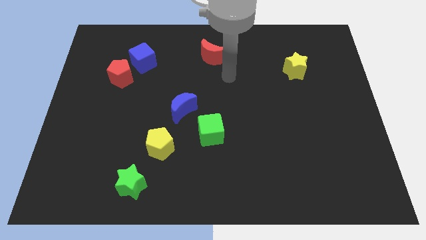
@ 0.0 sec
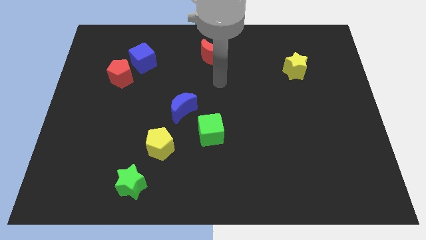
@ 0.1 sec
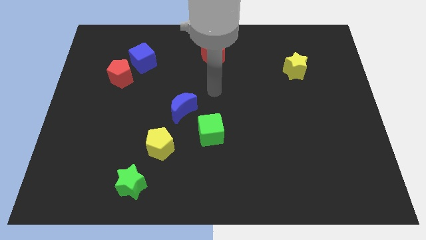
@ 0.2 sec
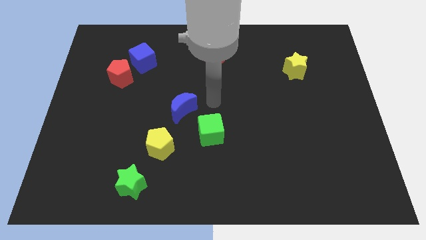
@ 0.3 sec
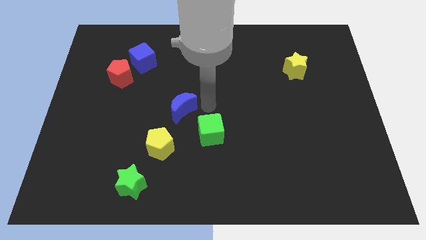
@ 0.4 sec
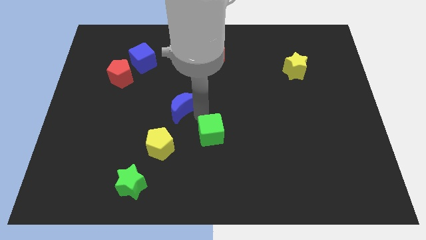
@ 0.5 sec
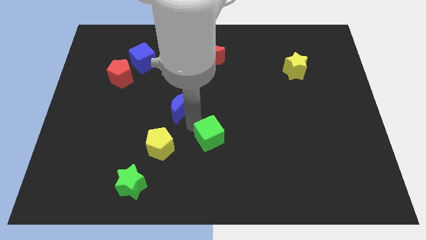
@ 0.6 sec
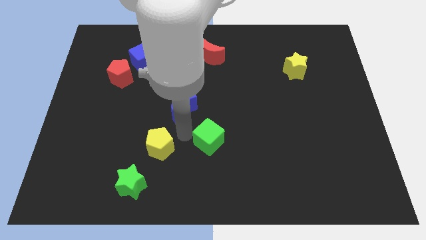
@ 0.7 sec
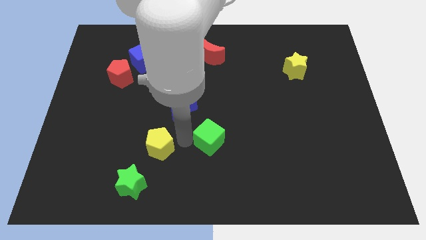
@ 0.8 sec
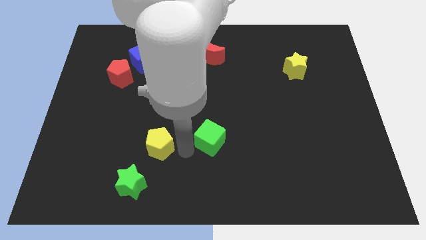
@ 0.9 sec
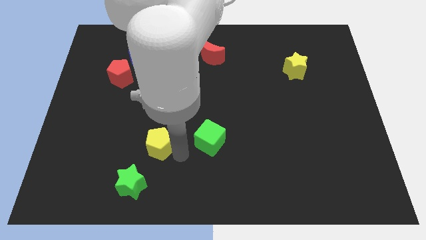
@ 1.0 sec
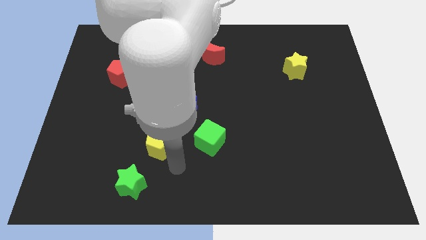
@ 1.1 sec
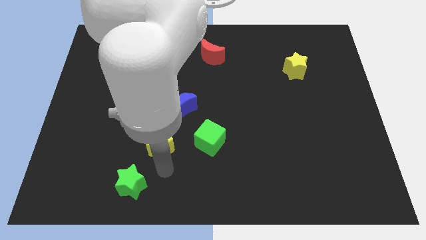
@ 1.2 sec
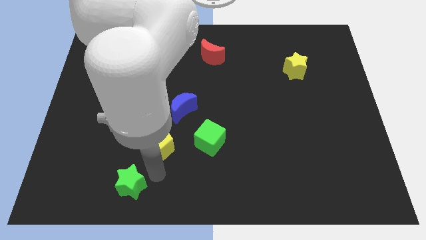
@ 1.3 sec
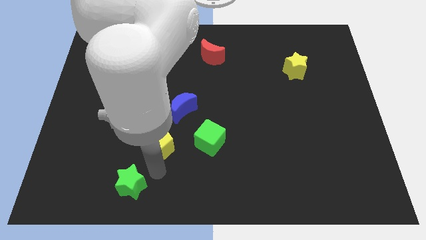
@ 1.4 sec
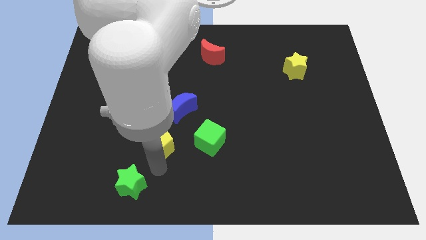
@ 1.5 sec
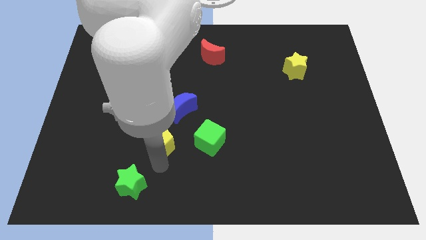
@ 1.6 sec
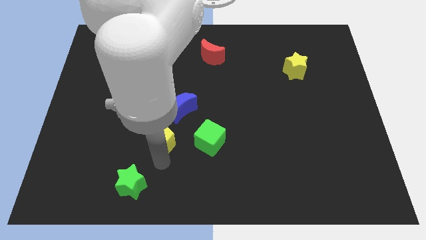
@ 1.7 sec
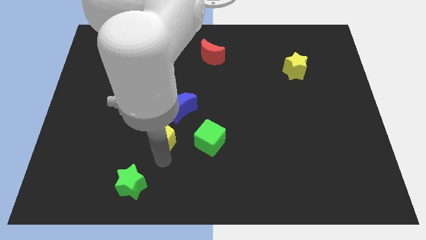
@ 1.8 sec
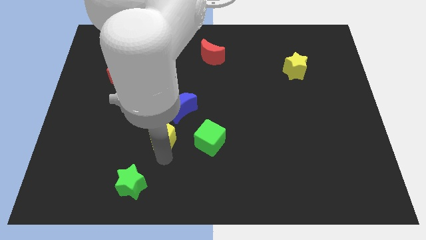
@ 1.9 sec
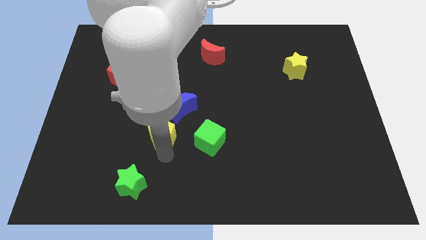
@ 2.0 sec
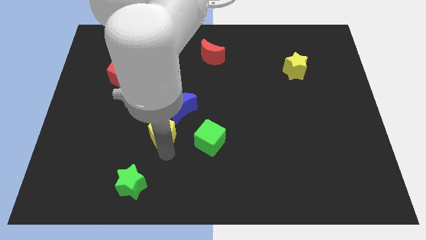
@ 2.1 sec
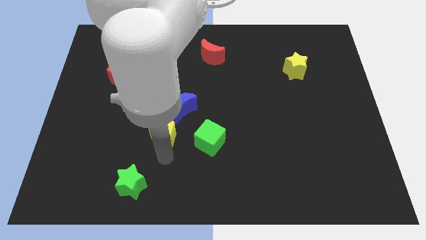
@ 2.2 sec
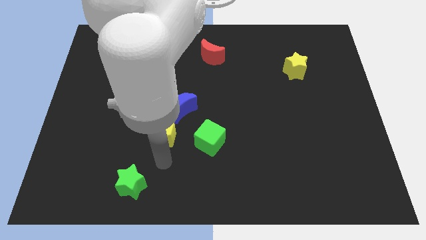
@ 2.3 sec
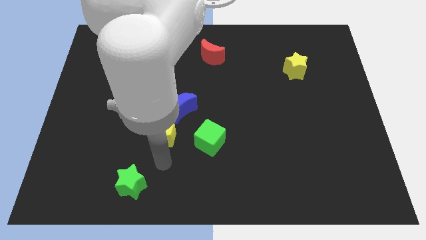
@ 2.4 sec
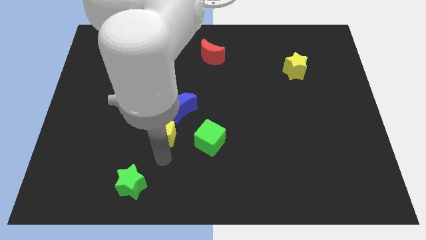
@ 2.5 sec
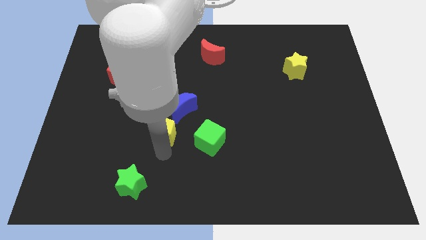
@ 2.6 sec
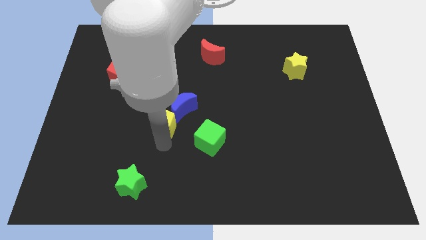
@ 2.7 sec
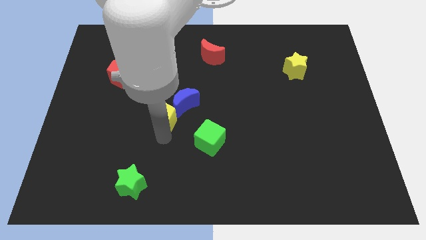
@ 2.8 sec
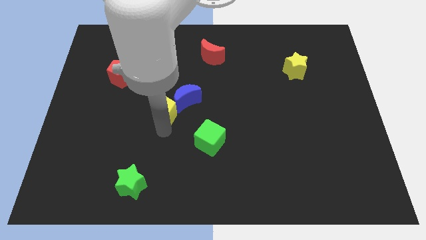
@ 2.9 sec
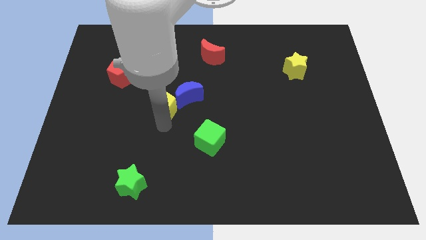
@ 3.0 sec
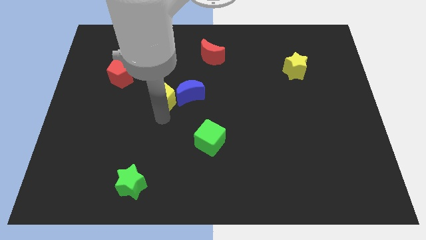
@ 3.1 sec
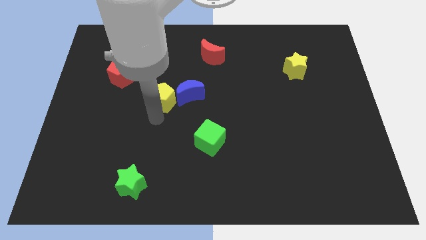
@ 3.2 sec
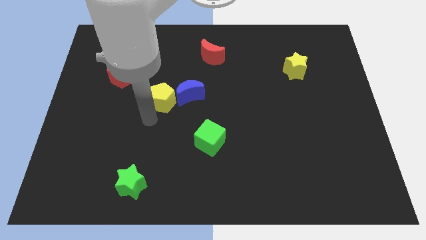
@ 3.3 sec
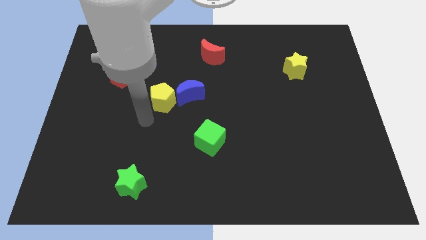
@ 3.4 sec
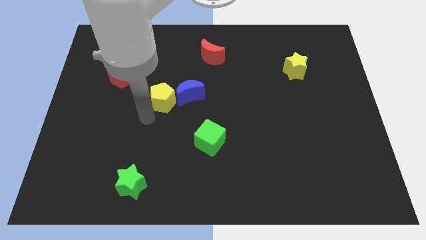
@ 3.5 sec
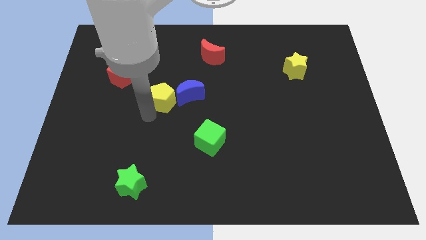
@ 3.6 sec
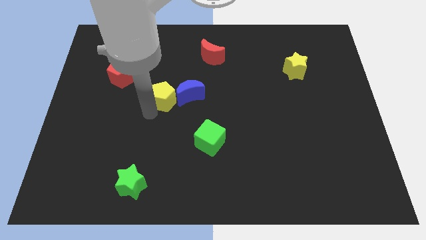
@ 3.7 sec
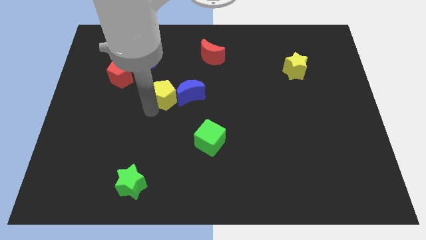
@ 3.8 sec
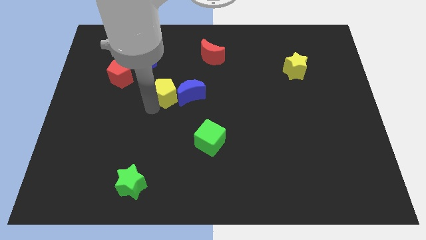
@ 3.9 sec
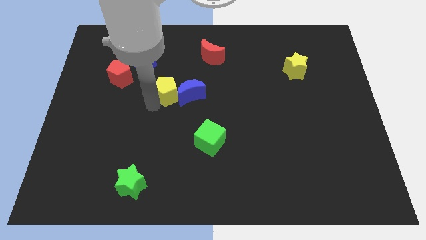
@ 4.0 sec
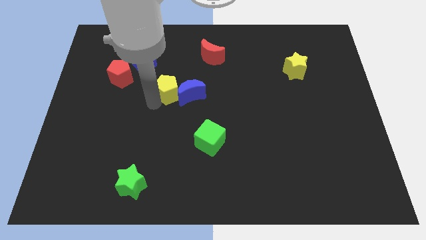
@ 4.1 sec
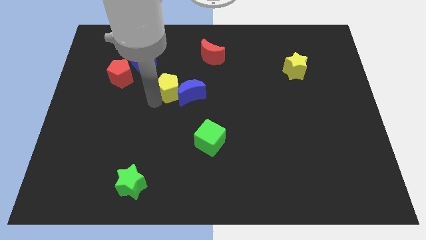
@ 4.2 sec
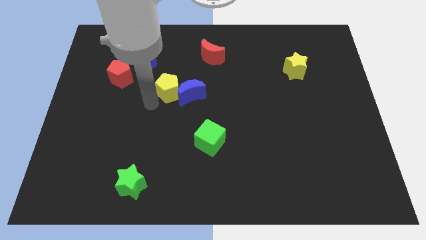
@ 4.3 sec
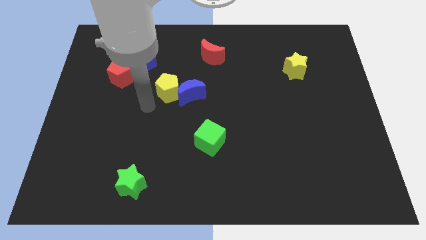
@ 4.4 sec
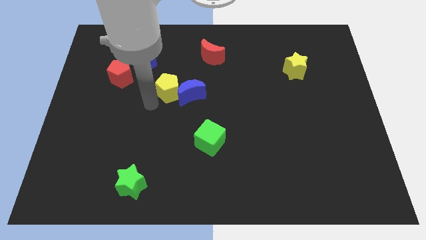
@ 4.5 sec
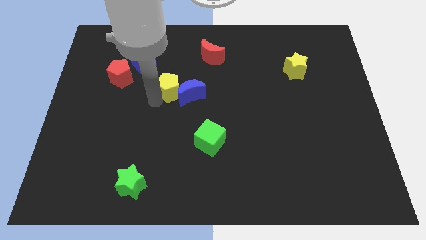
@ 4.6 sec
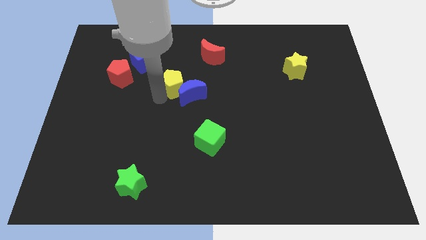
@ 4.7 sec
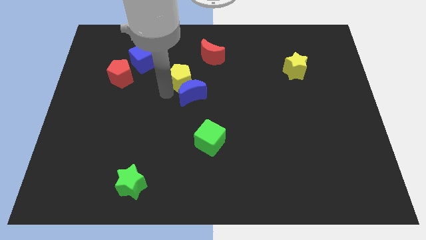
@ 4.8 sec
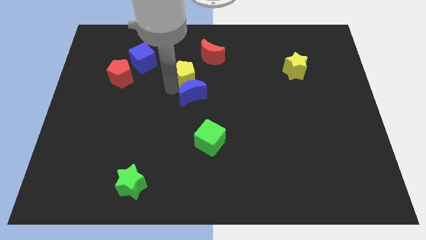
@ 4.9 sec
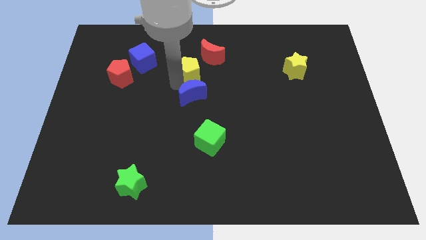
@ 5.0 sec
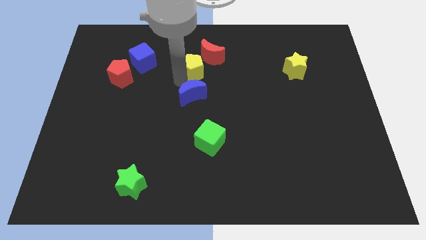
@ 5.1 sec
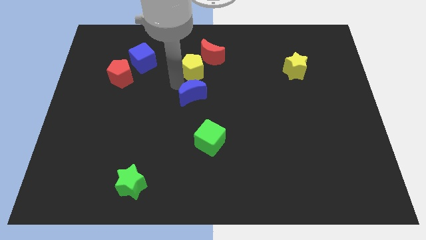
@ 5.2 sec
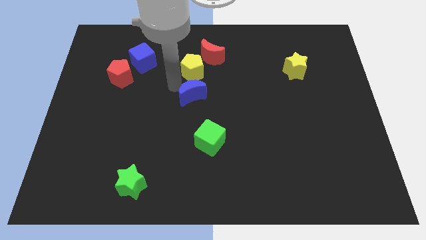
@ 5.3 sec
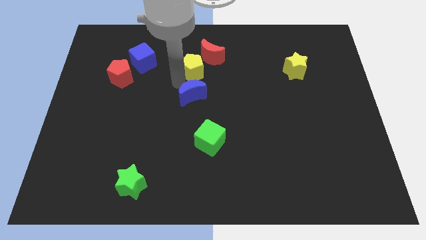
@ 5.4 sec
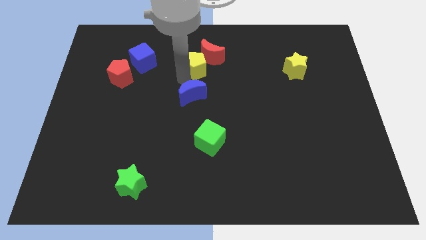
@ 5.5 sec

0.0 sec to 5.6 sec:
push the yellow pentagon next to the red moon

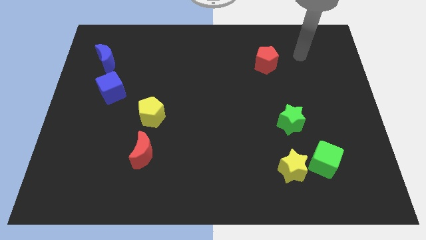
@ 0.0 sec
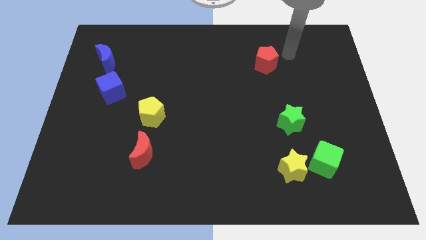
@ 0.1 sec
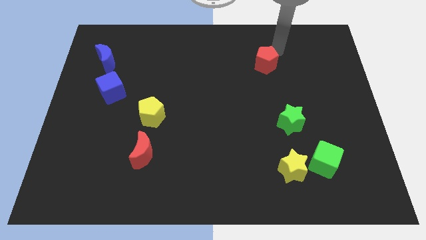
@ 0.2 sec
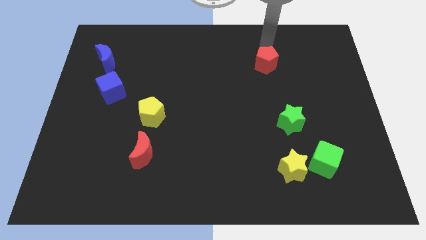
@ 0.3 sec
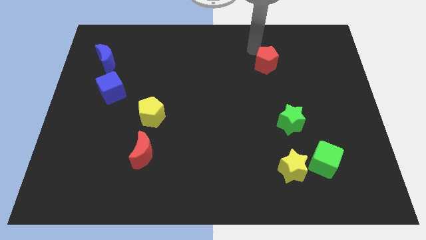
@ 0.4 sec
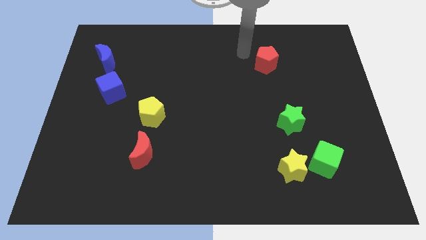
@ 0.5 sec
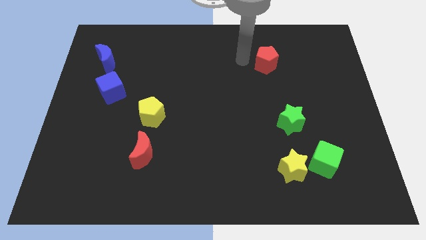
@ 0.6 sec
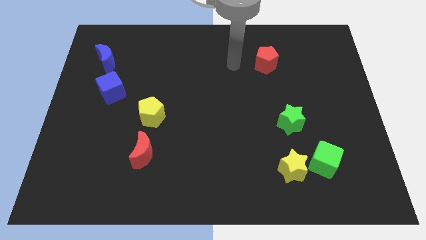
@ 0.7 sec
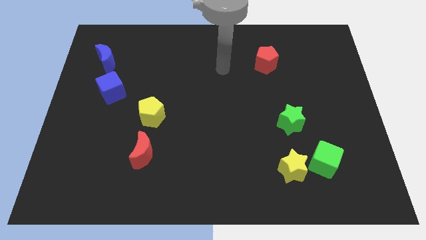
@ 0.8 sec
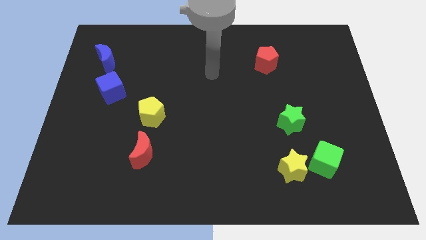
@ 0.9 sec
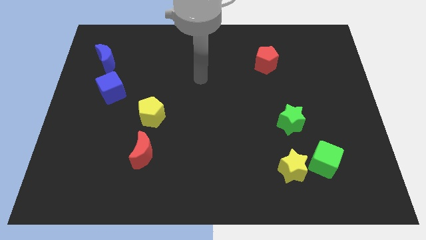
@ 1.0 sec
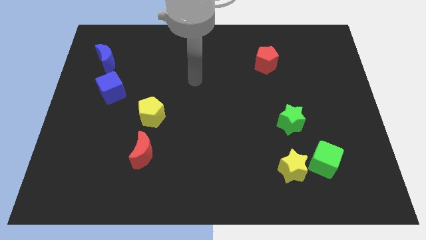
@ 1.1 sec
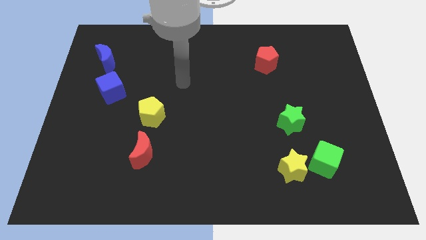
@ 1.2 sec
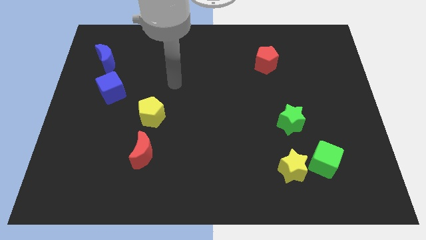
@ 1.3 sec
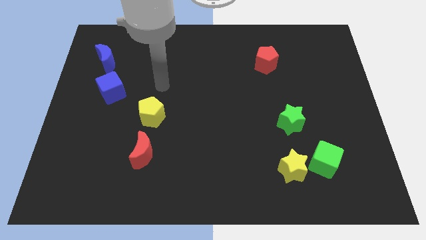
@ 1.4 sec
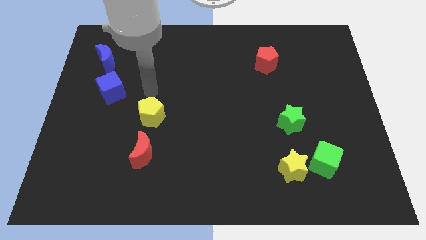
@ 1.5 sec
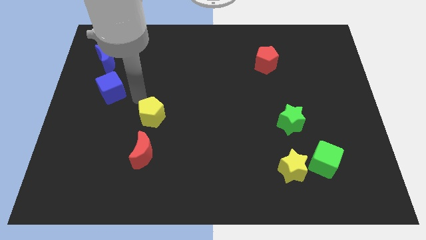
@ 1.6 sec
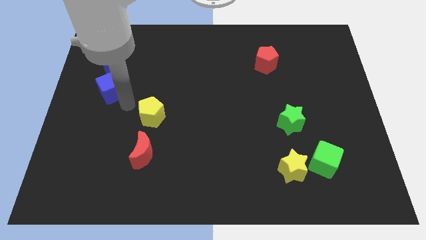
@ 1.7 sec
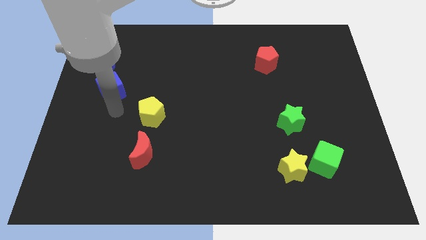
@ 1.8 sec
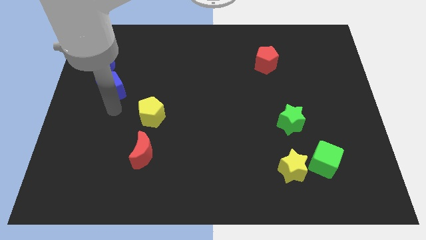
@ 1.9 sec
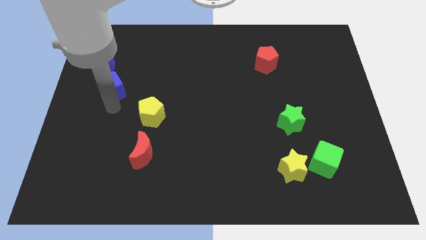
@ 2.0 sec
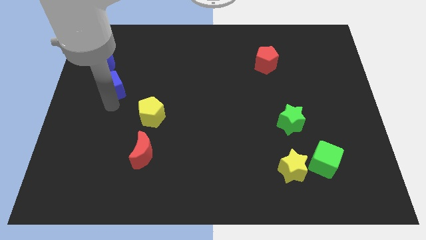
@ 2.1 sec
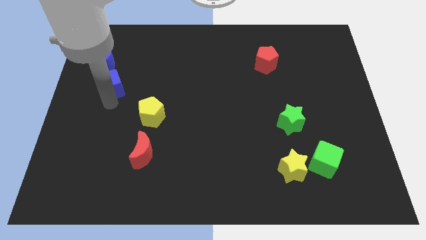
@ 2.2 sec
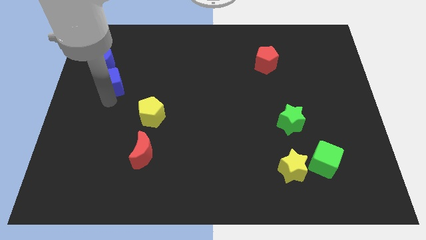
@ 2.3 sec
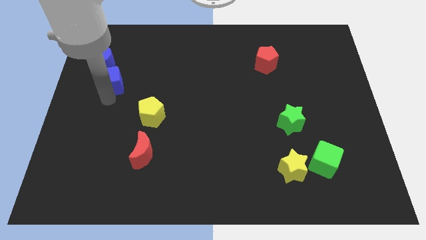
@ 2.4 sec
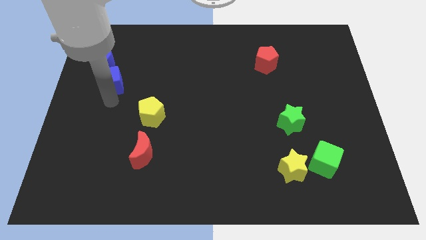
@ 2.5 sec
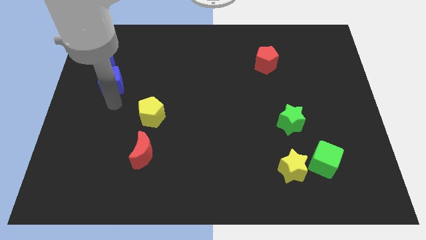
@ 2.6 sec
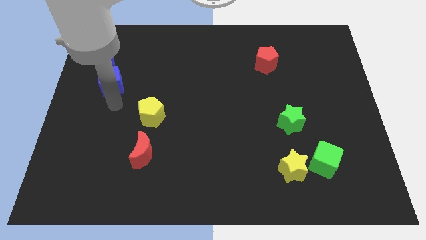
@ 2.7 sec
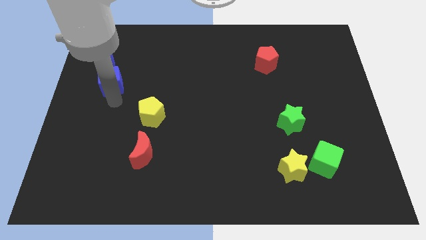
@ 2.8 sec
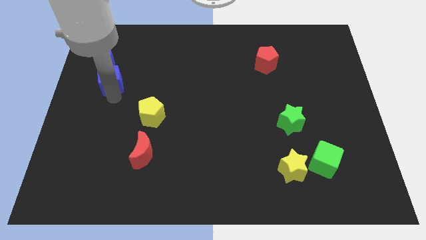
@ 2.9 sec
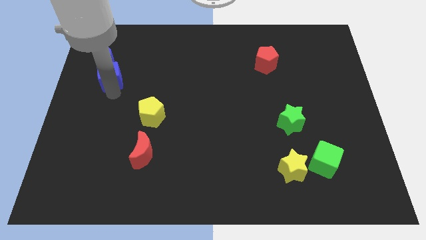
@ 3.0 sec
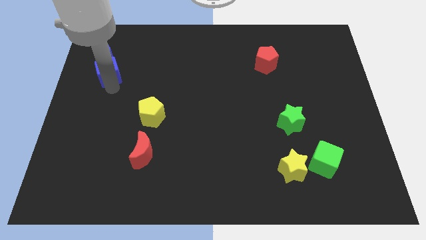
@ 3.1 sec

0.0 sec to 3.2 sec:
put the blue cube next to the blue moon
